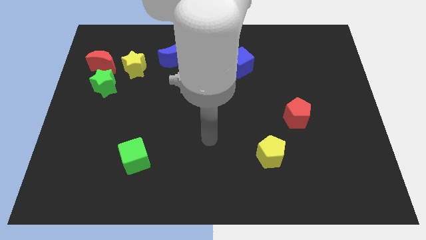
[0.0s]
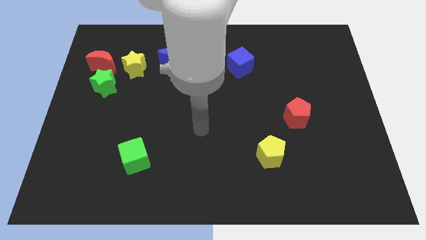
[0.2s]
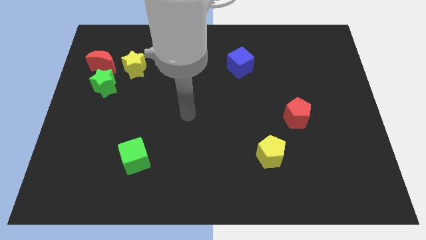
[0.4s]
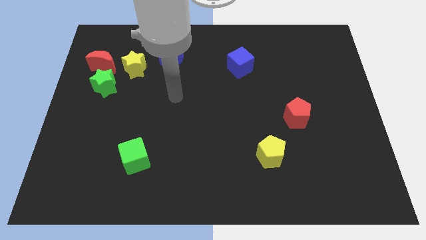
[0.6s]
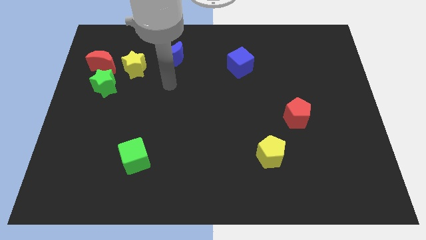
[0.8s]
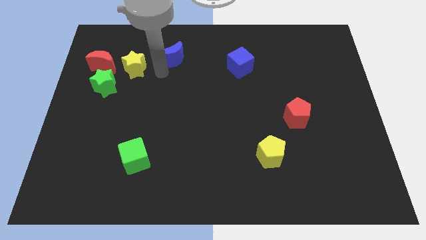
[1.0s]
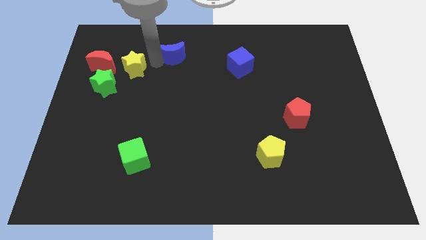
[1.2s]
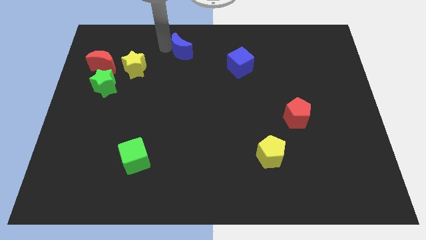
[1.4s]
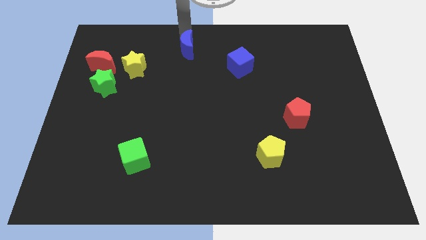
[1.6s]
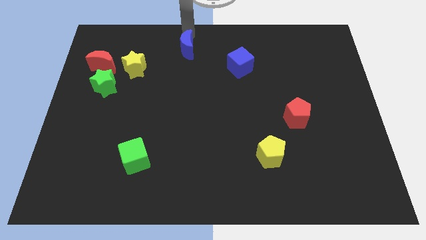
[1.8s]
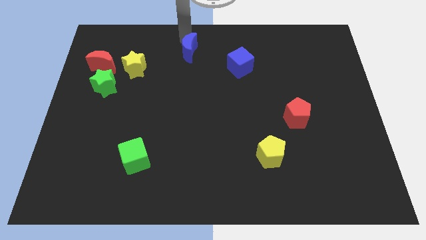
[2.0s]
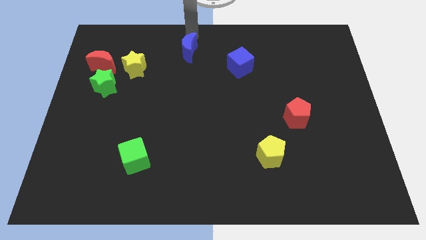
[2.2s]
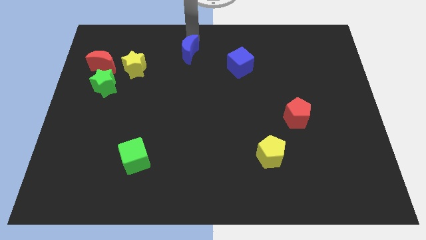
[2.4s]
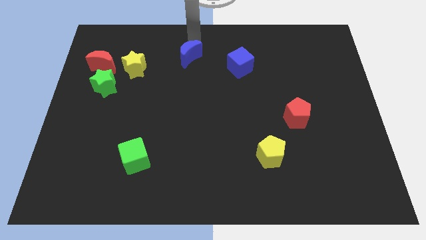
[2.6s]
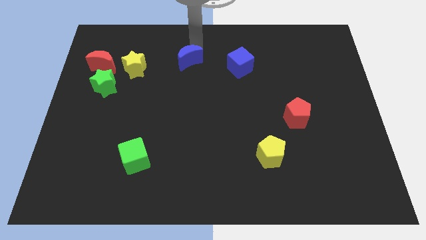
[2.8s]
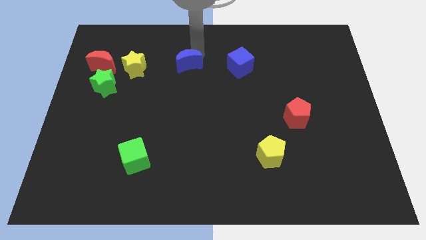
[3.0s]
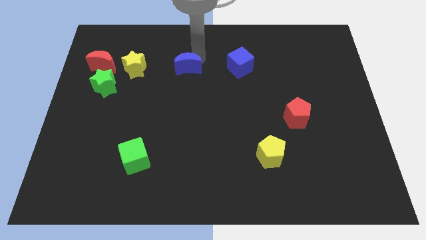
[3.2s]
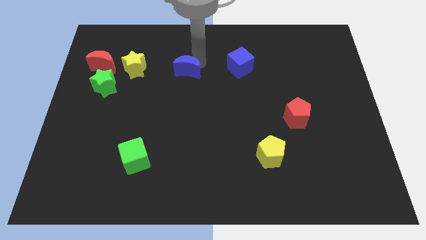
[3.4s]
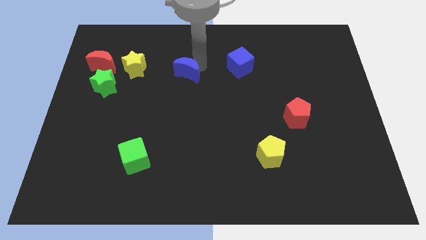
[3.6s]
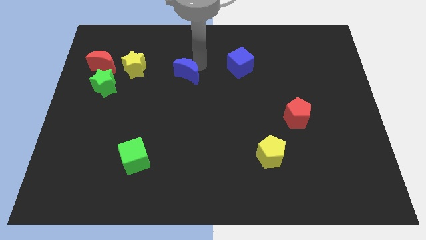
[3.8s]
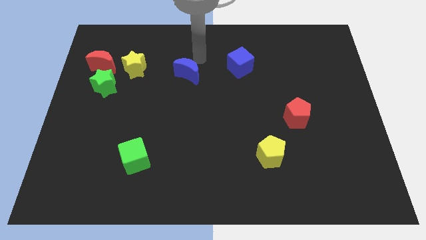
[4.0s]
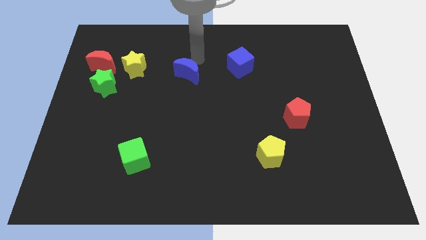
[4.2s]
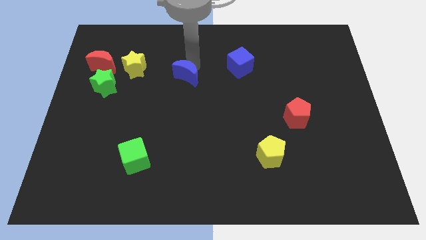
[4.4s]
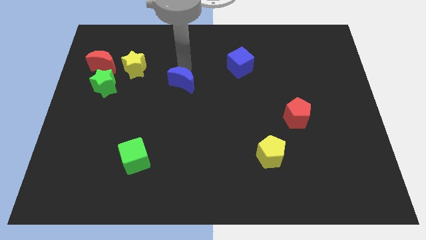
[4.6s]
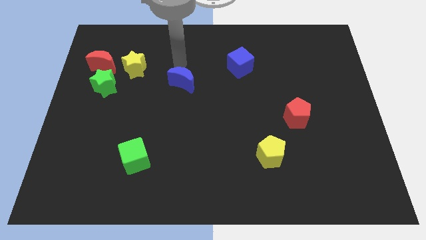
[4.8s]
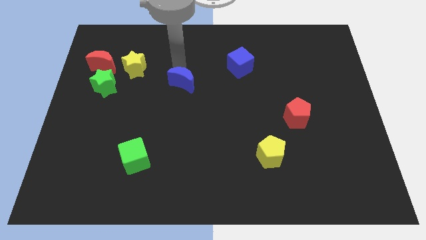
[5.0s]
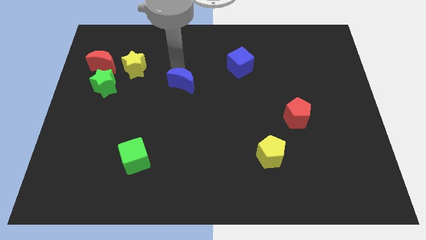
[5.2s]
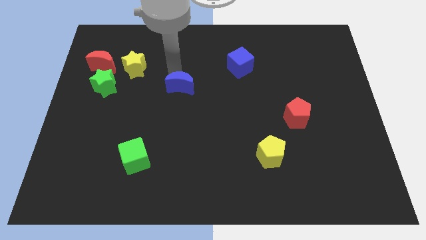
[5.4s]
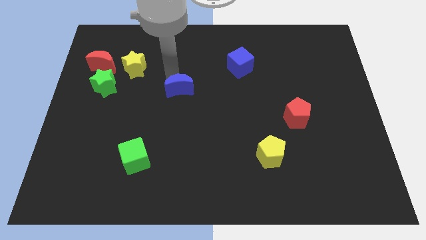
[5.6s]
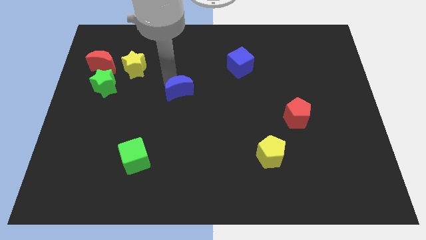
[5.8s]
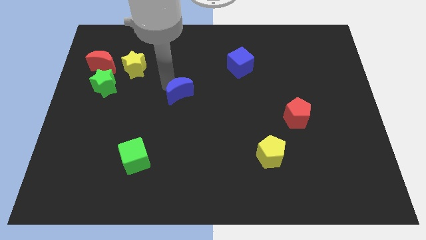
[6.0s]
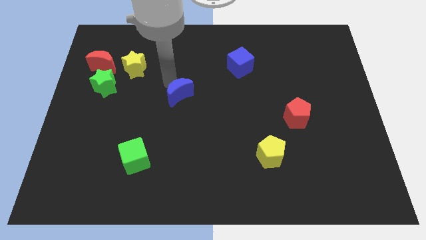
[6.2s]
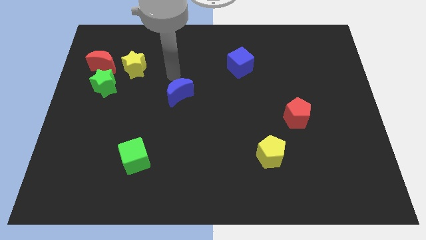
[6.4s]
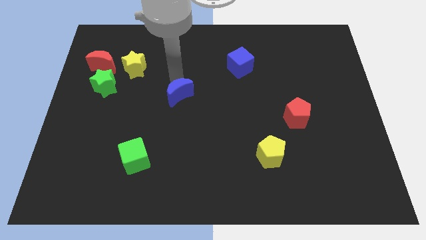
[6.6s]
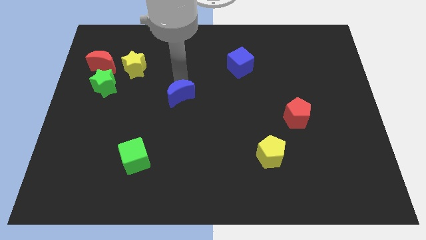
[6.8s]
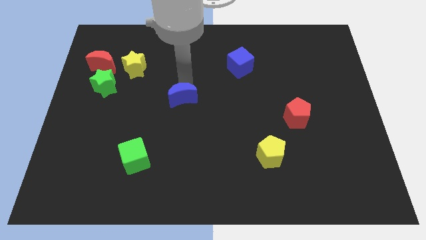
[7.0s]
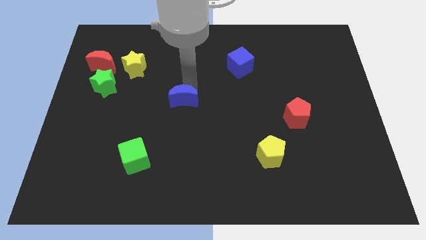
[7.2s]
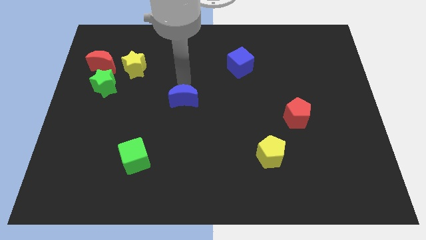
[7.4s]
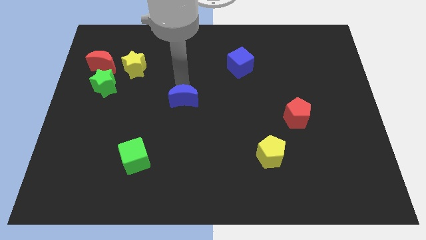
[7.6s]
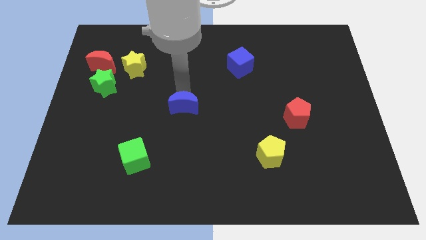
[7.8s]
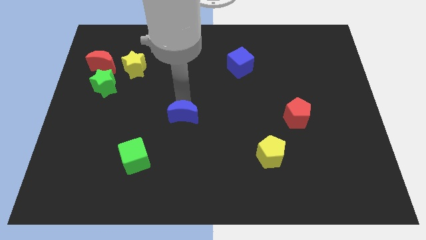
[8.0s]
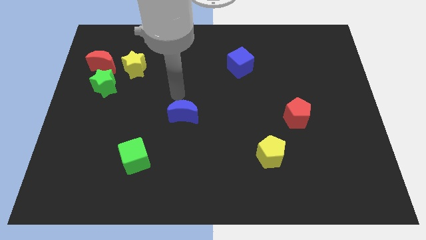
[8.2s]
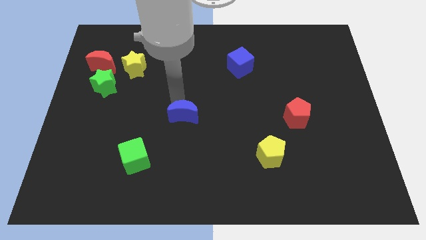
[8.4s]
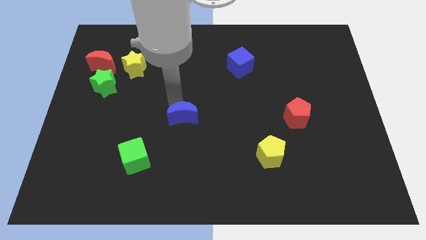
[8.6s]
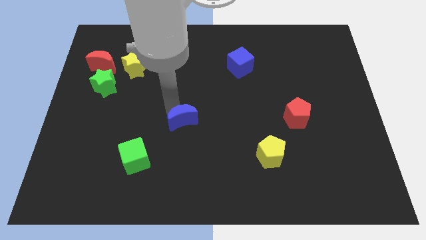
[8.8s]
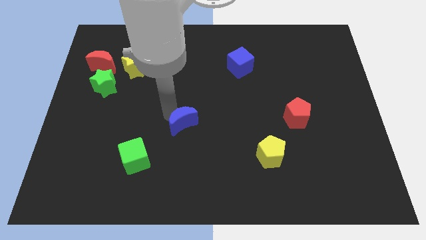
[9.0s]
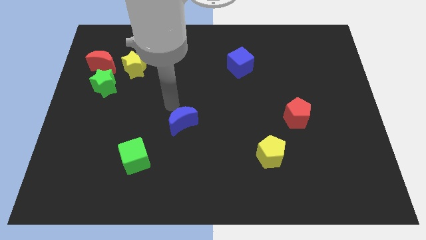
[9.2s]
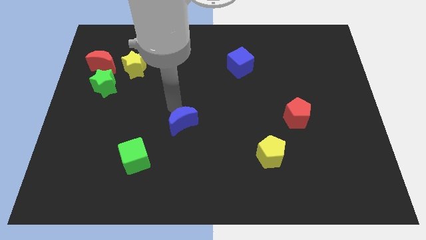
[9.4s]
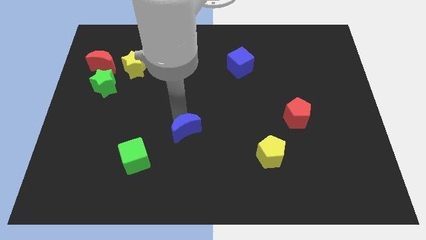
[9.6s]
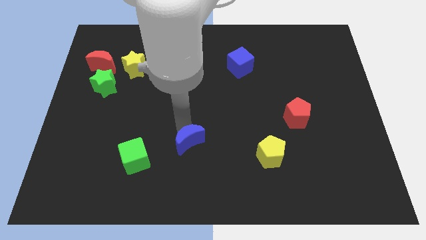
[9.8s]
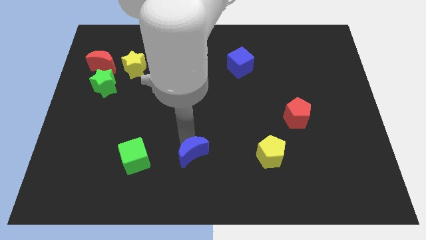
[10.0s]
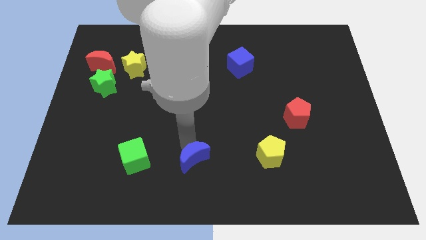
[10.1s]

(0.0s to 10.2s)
push the blue moon to the bottom side

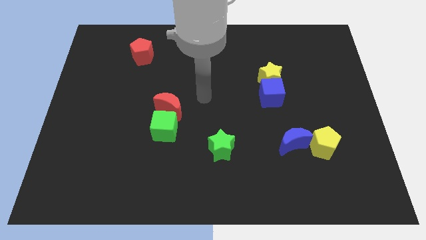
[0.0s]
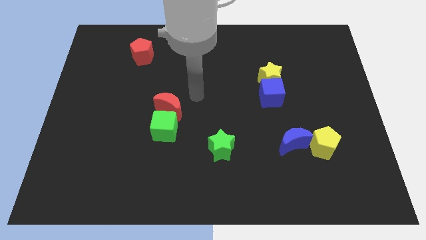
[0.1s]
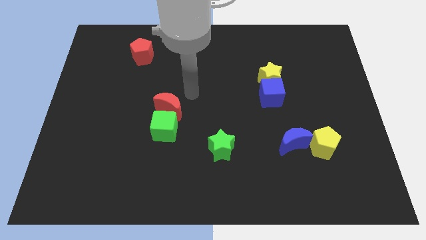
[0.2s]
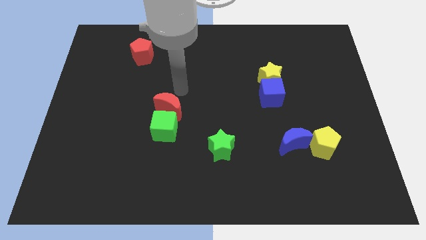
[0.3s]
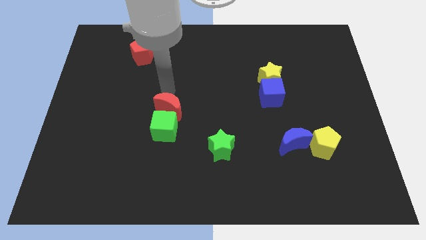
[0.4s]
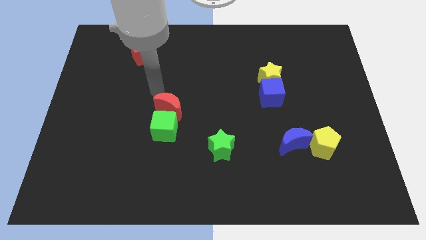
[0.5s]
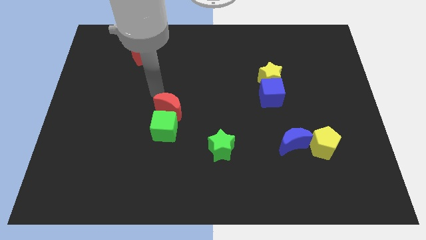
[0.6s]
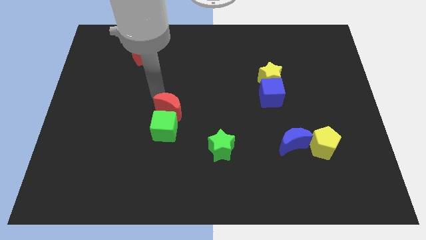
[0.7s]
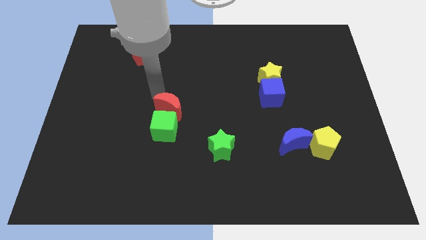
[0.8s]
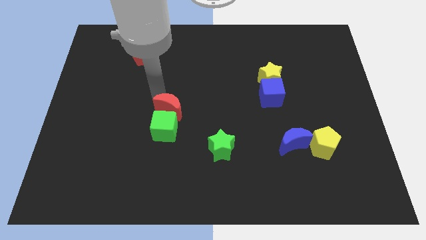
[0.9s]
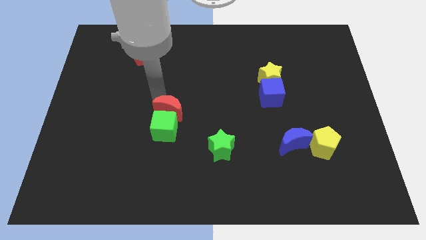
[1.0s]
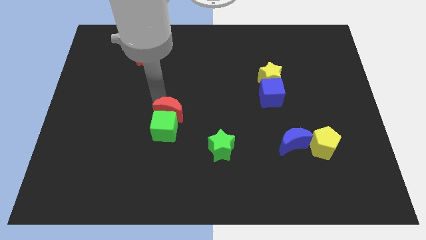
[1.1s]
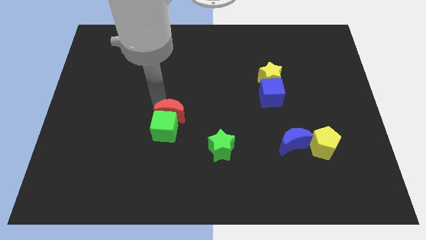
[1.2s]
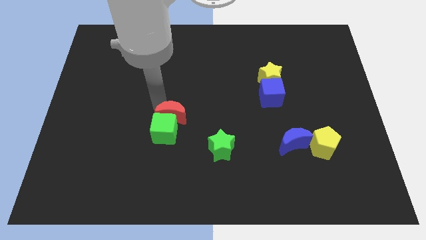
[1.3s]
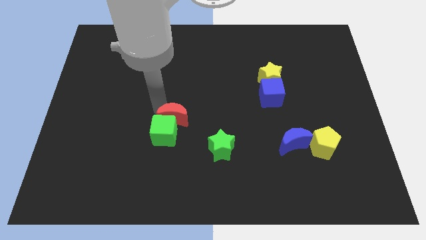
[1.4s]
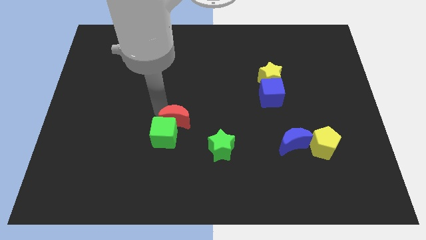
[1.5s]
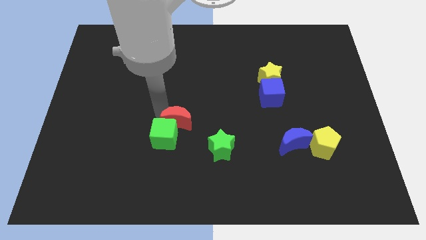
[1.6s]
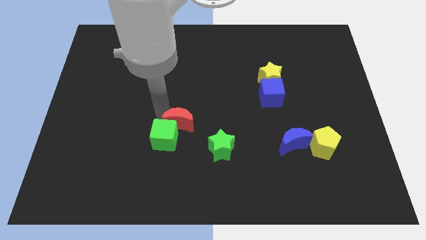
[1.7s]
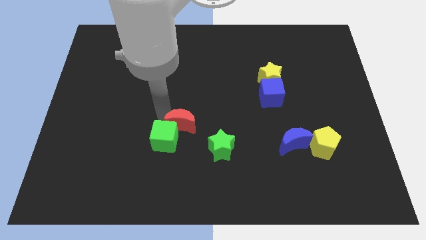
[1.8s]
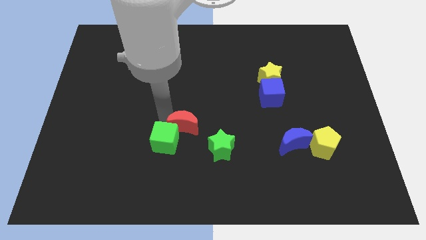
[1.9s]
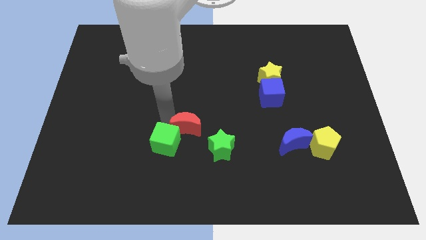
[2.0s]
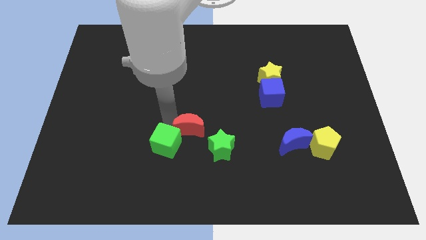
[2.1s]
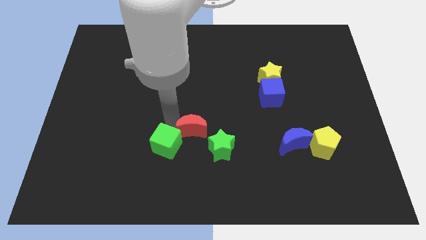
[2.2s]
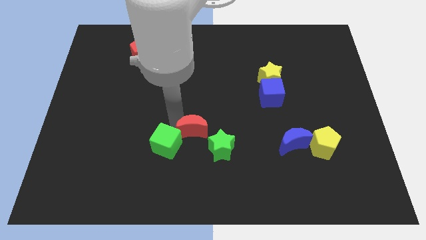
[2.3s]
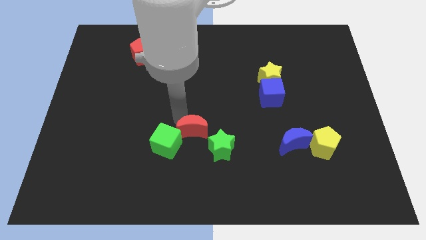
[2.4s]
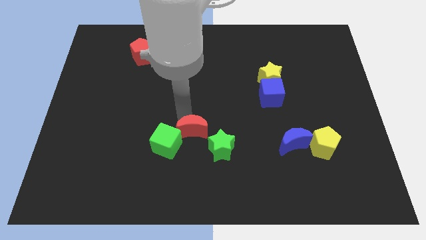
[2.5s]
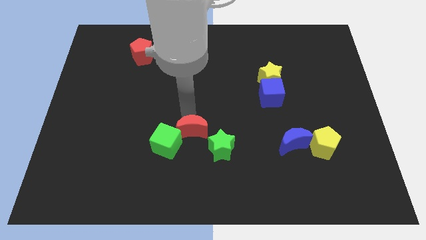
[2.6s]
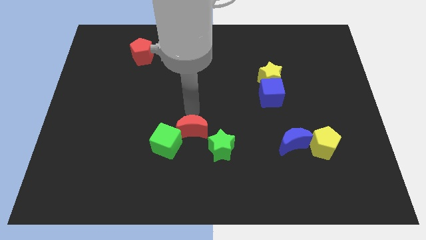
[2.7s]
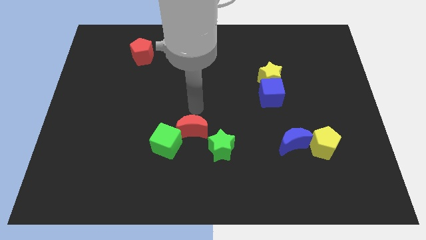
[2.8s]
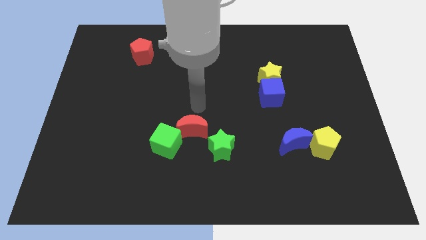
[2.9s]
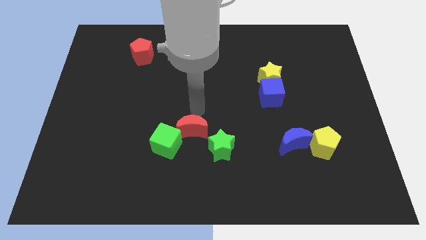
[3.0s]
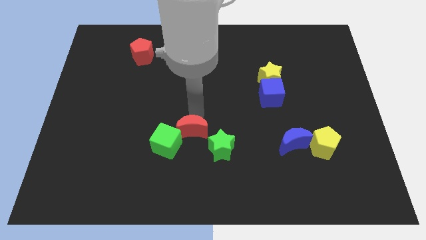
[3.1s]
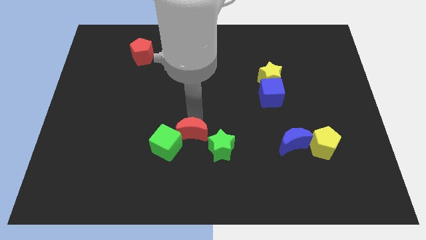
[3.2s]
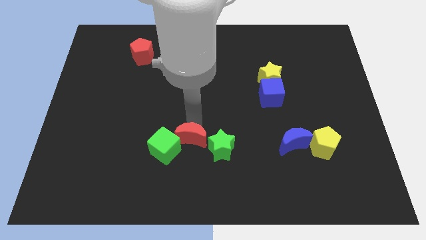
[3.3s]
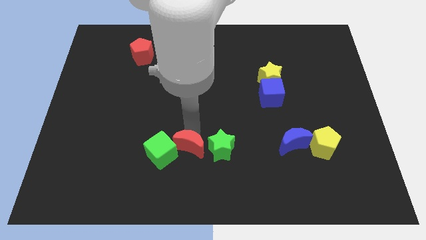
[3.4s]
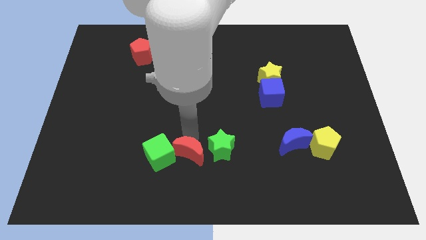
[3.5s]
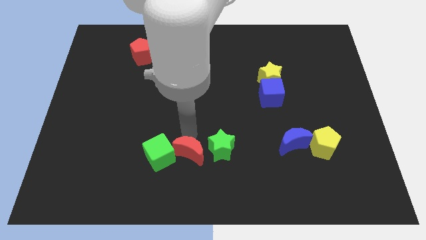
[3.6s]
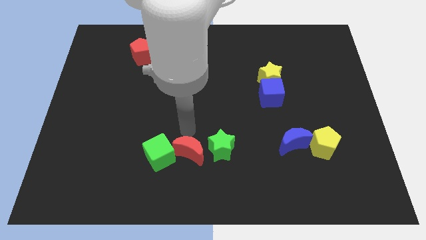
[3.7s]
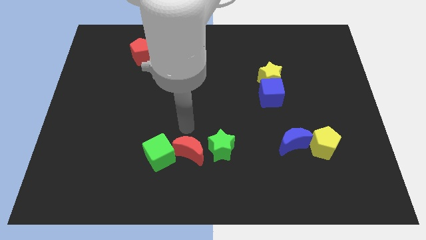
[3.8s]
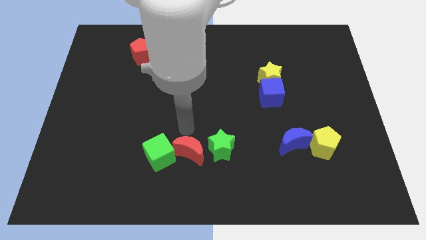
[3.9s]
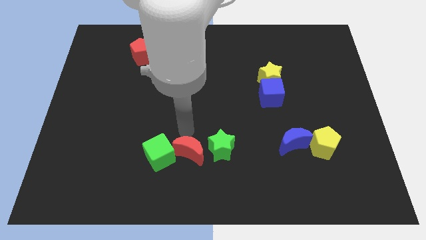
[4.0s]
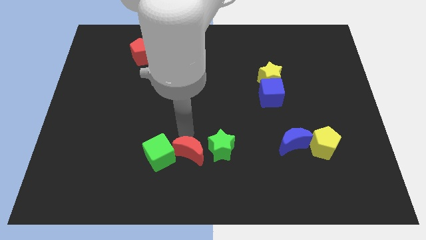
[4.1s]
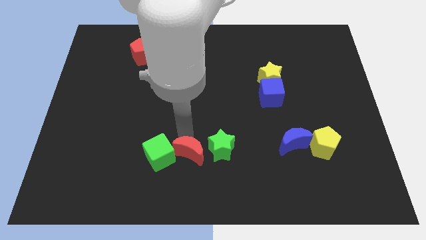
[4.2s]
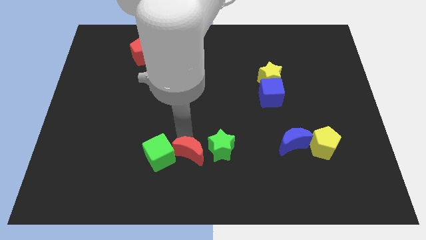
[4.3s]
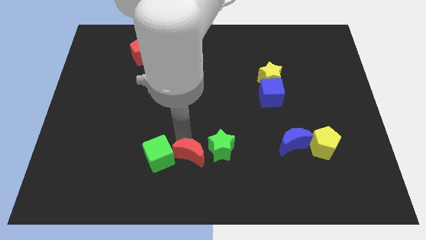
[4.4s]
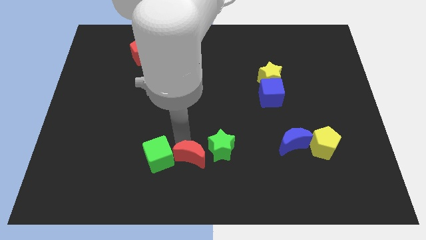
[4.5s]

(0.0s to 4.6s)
move the red moon to the bottom
